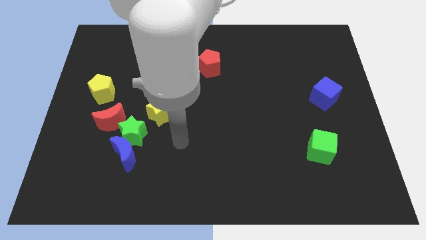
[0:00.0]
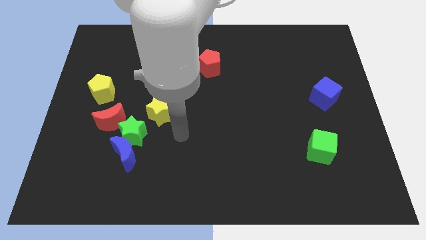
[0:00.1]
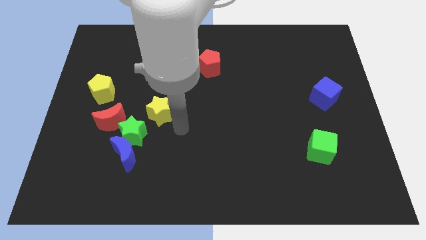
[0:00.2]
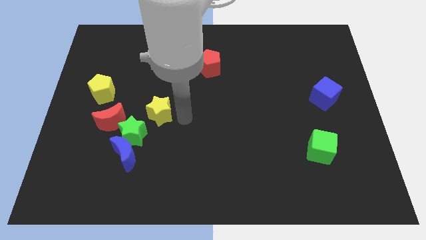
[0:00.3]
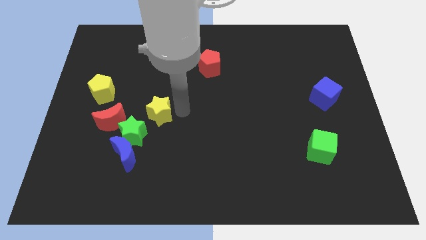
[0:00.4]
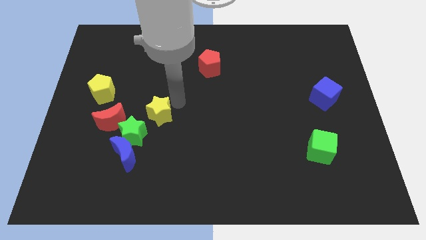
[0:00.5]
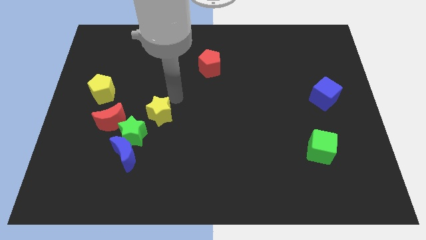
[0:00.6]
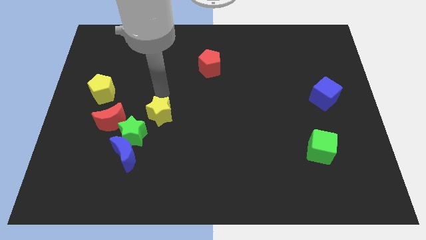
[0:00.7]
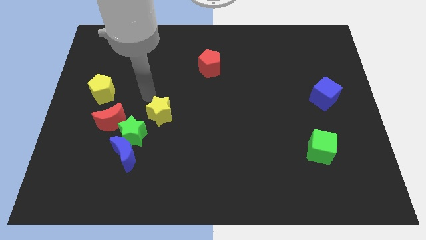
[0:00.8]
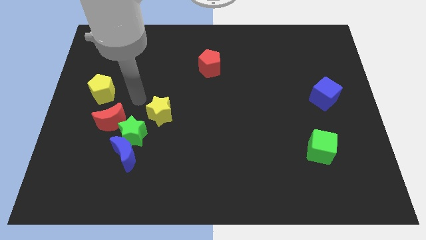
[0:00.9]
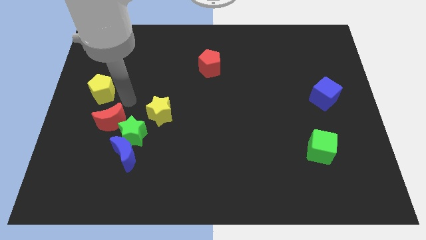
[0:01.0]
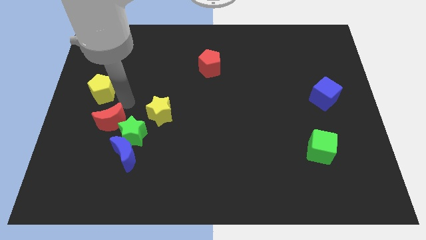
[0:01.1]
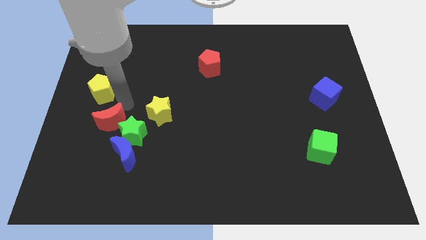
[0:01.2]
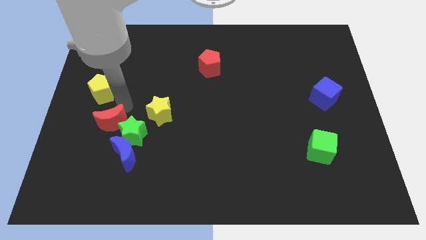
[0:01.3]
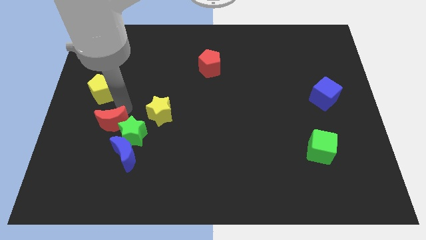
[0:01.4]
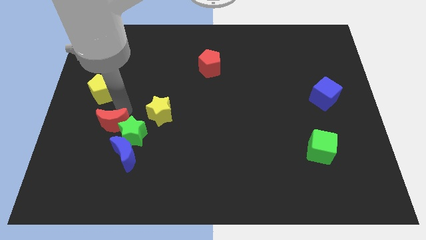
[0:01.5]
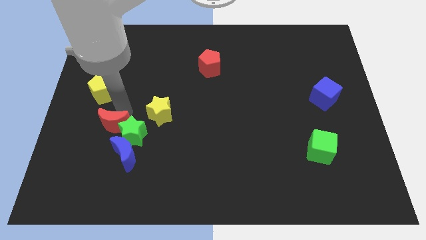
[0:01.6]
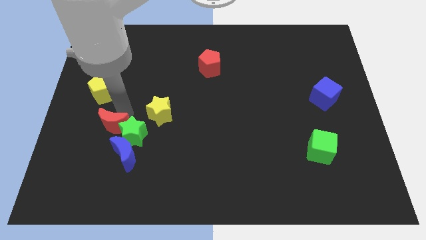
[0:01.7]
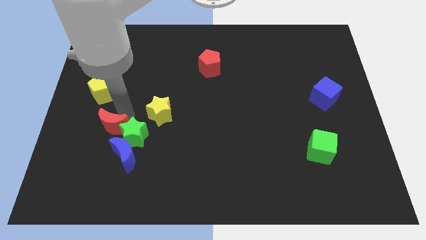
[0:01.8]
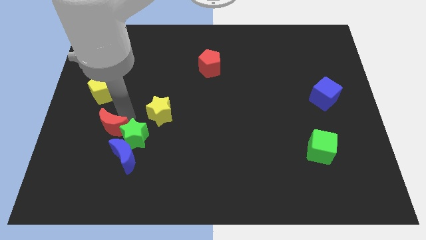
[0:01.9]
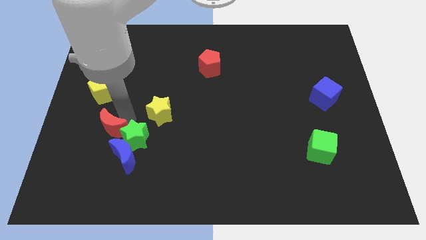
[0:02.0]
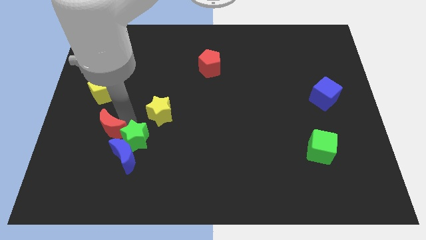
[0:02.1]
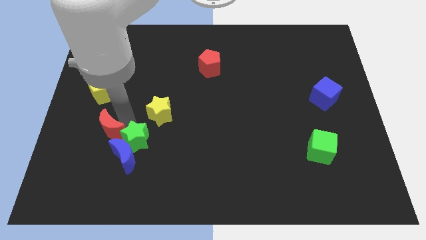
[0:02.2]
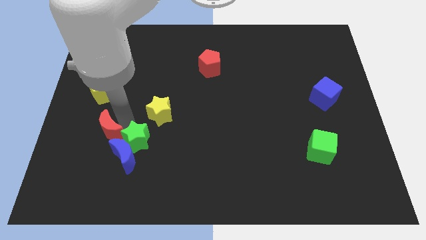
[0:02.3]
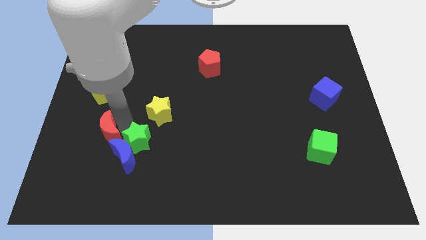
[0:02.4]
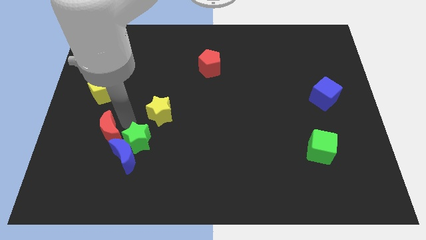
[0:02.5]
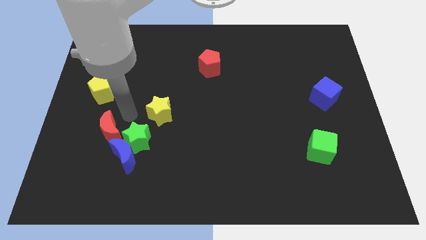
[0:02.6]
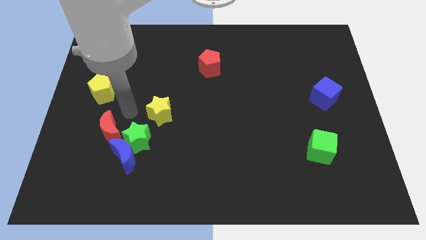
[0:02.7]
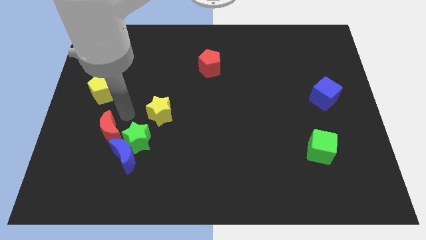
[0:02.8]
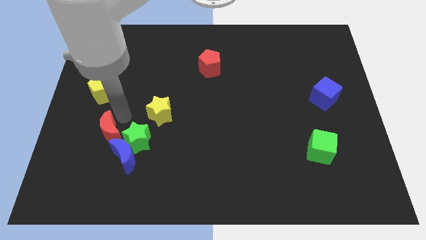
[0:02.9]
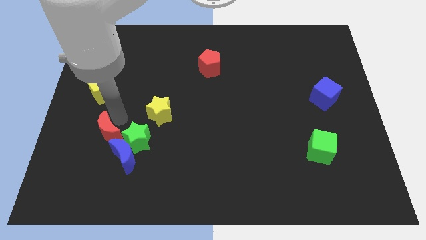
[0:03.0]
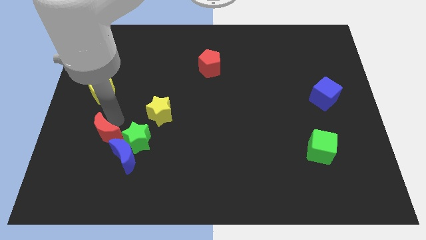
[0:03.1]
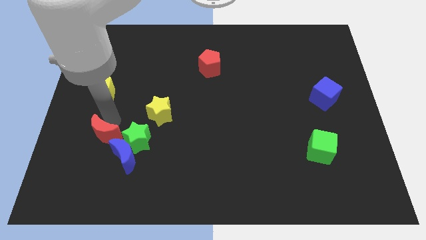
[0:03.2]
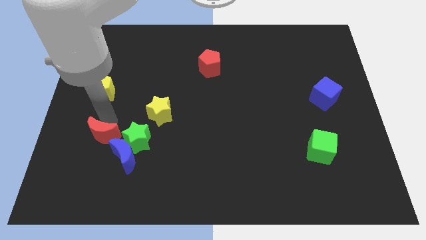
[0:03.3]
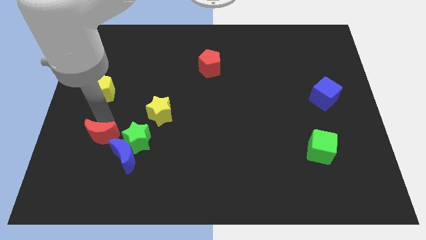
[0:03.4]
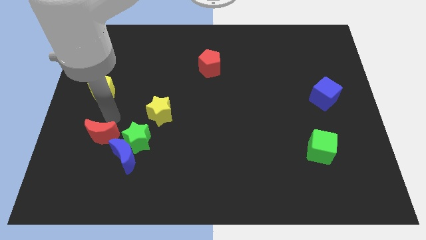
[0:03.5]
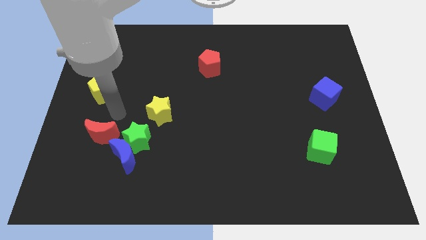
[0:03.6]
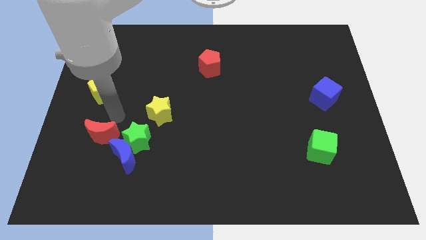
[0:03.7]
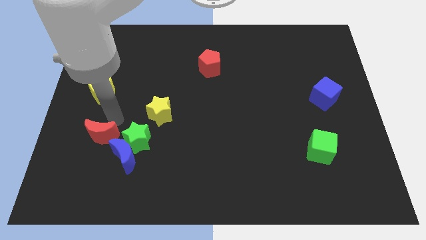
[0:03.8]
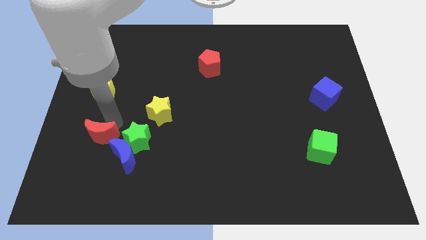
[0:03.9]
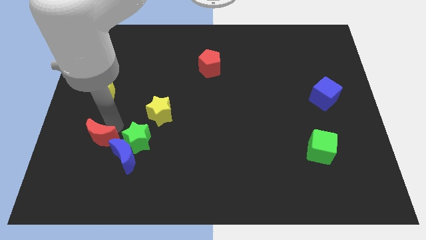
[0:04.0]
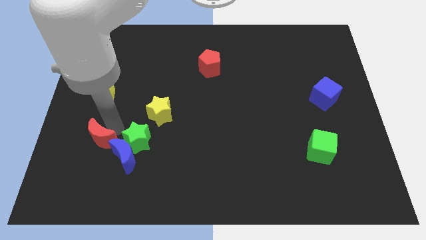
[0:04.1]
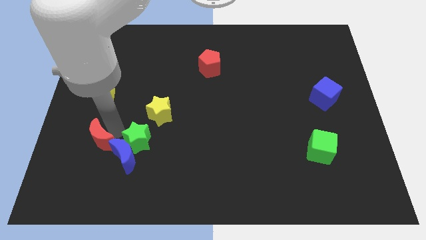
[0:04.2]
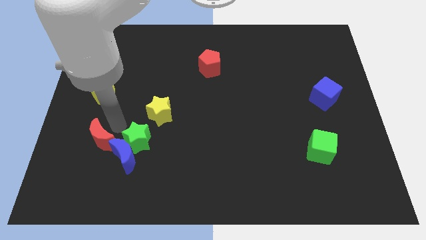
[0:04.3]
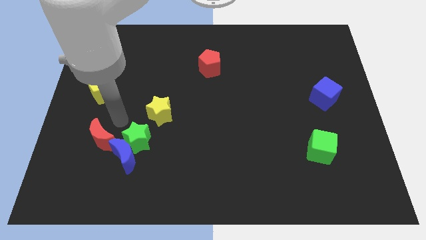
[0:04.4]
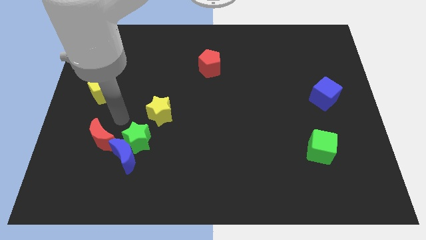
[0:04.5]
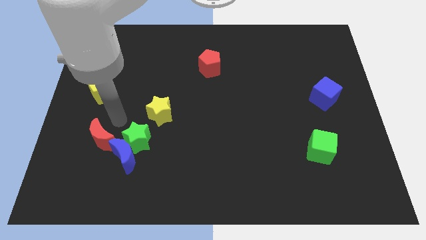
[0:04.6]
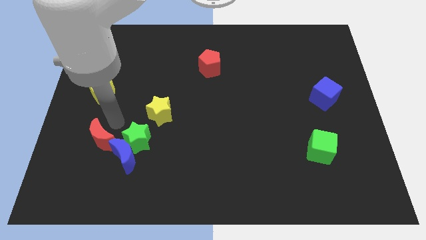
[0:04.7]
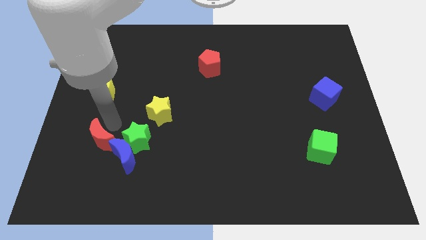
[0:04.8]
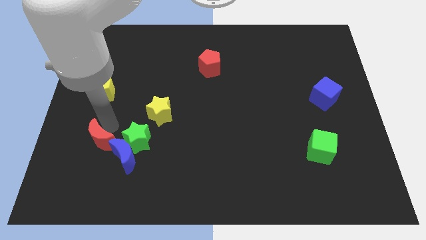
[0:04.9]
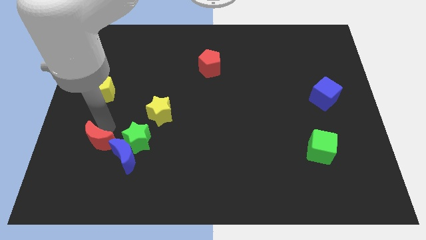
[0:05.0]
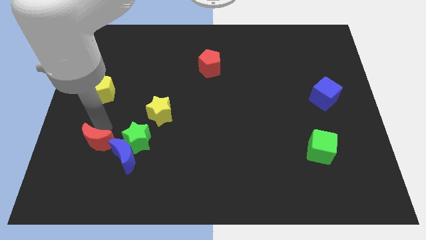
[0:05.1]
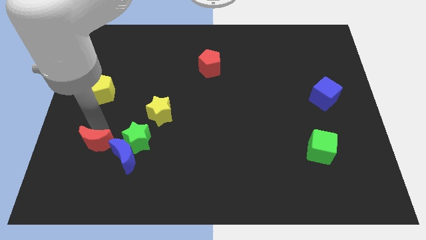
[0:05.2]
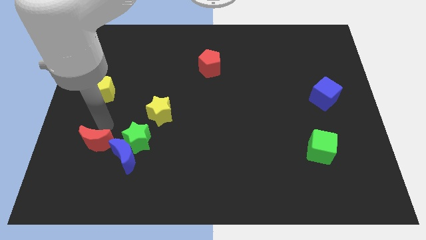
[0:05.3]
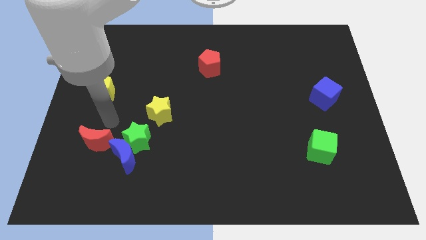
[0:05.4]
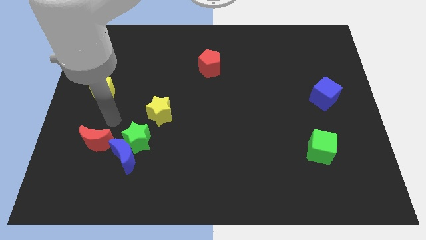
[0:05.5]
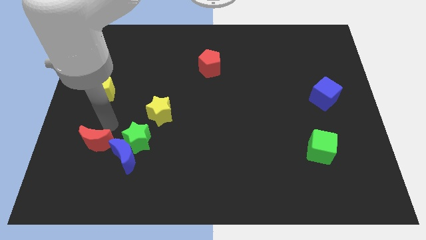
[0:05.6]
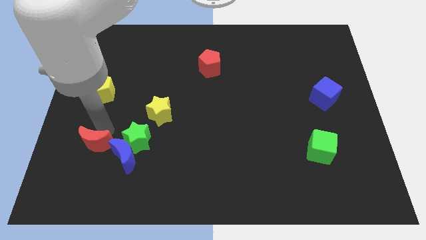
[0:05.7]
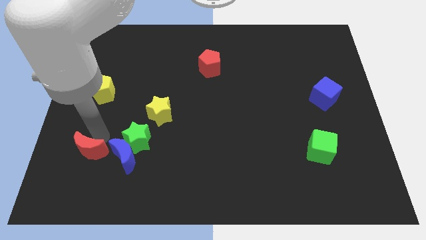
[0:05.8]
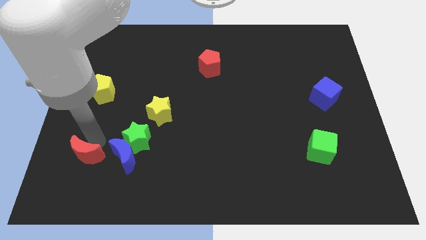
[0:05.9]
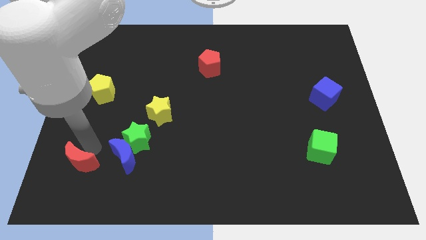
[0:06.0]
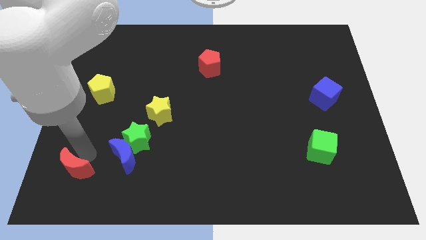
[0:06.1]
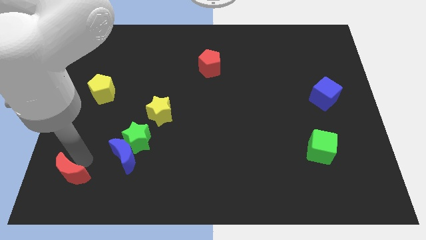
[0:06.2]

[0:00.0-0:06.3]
slide the red moon to the bottom left of the board
